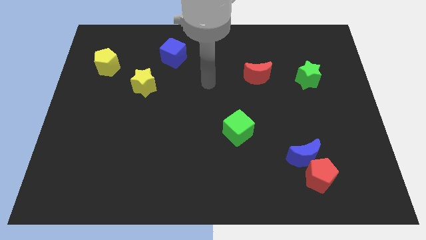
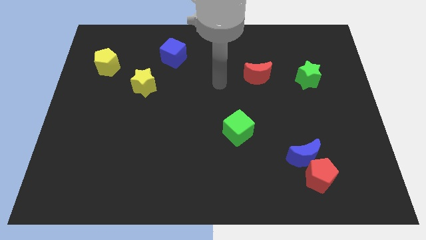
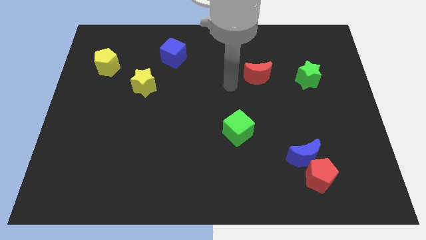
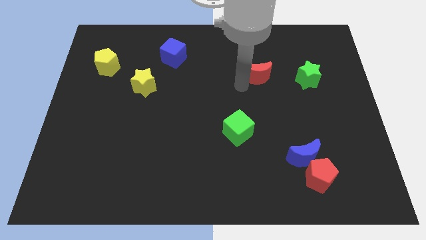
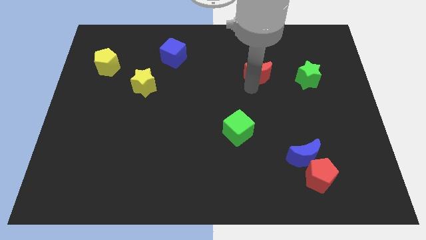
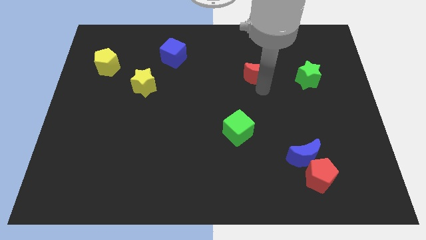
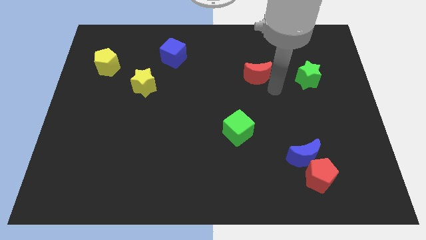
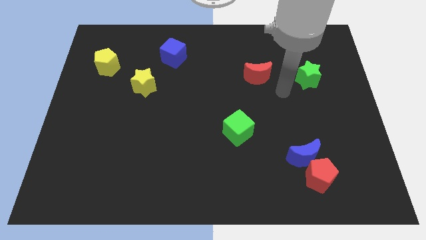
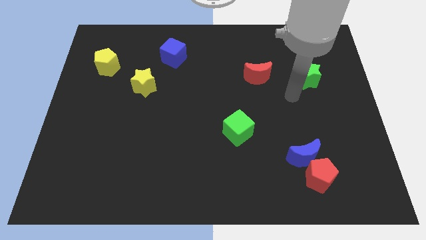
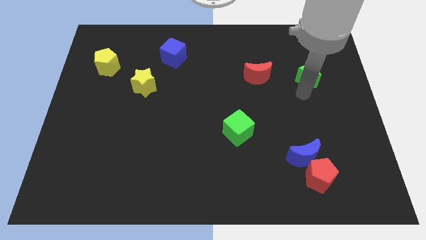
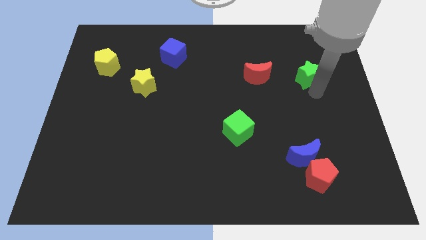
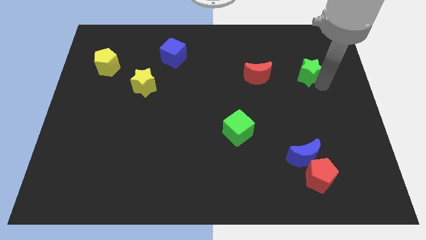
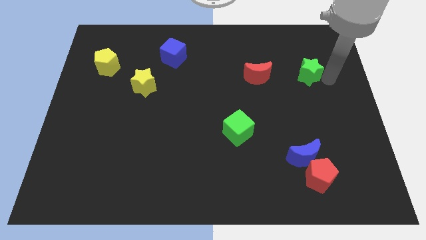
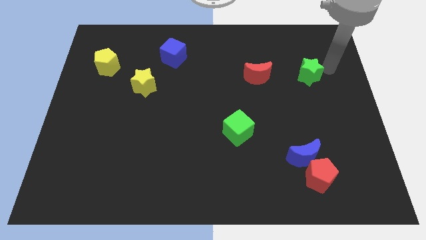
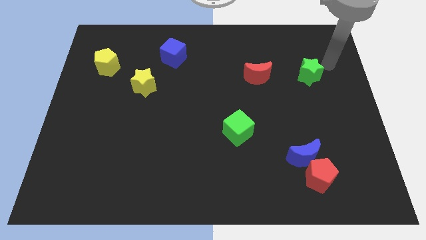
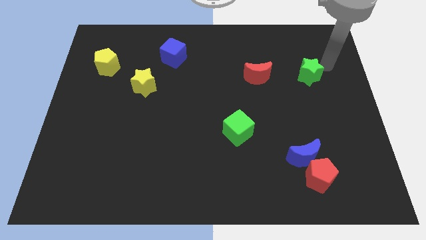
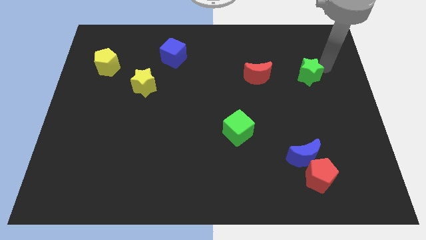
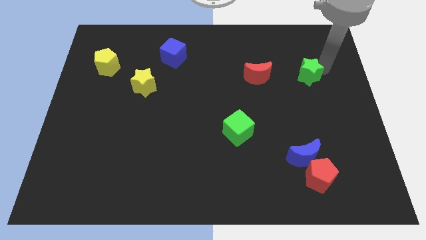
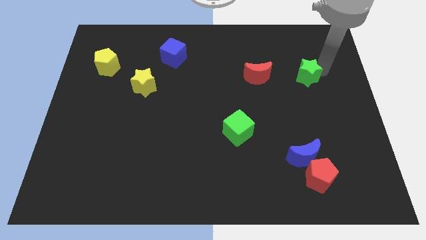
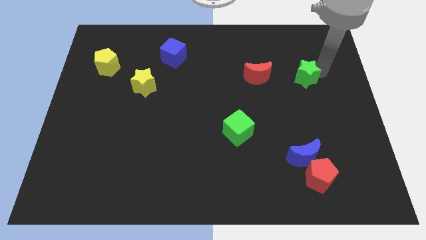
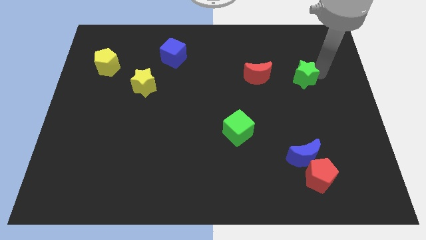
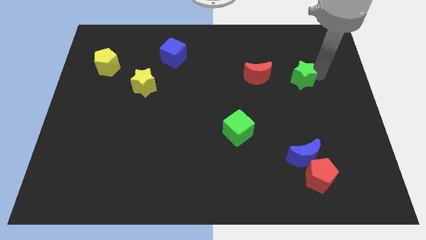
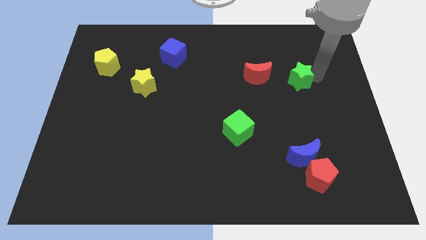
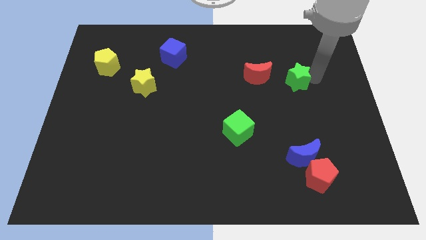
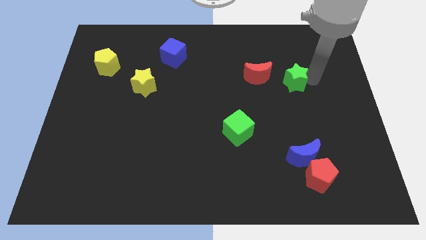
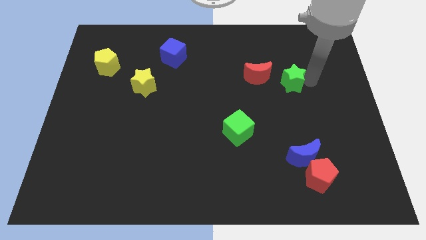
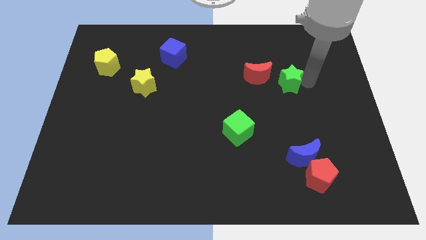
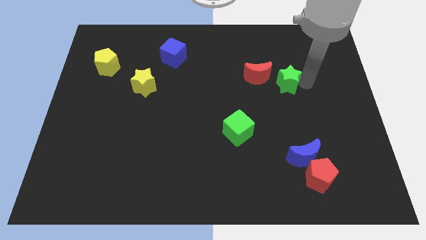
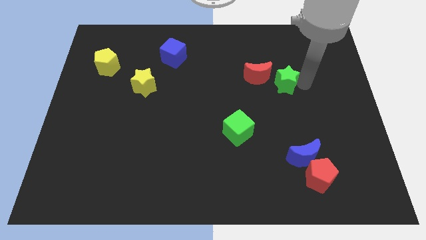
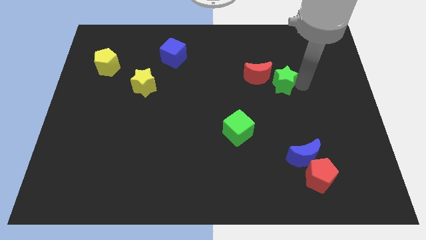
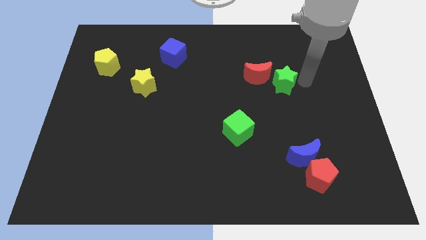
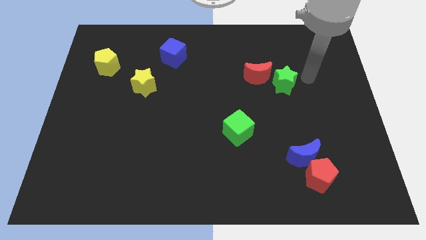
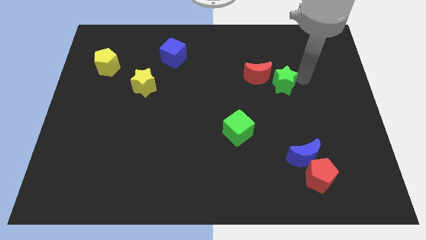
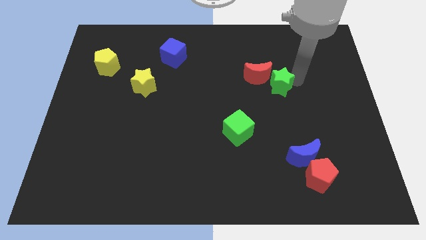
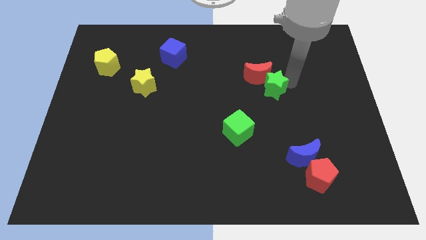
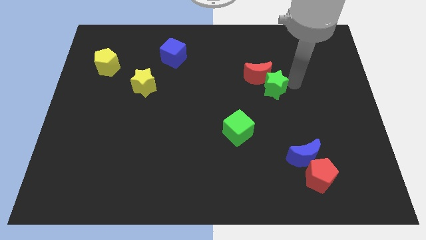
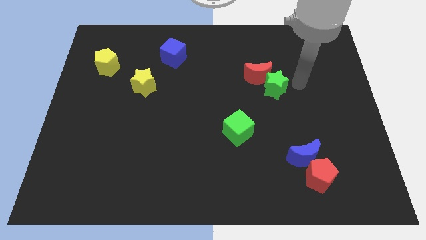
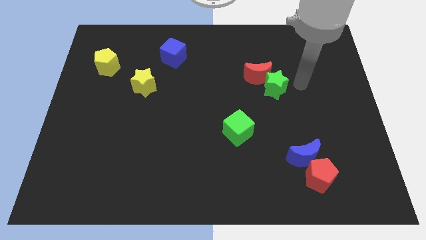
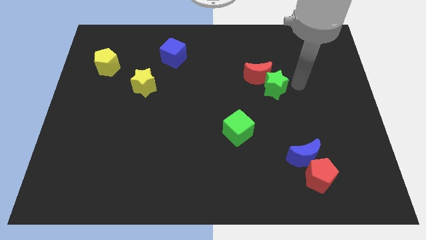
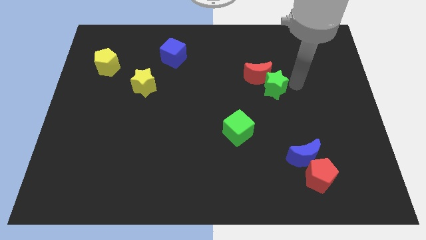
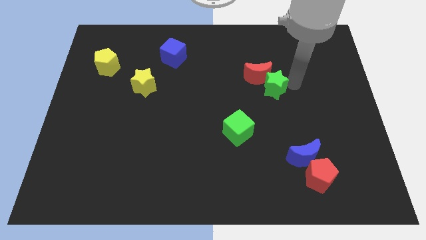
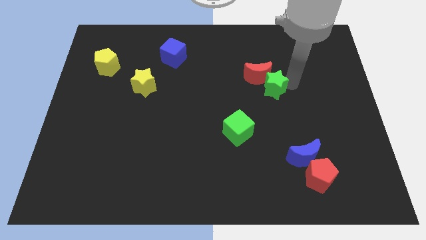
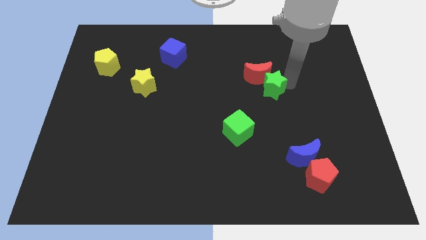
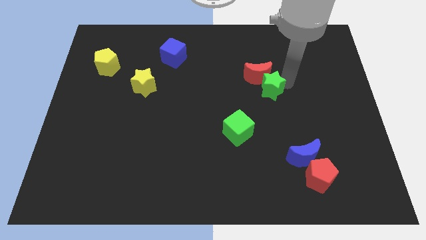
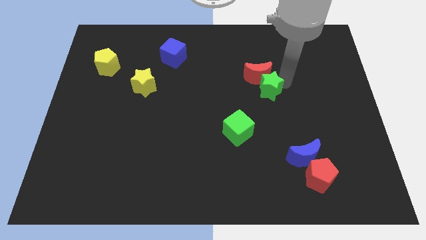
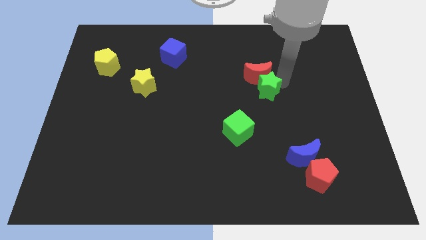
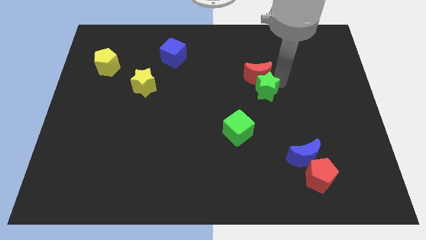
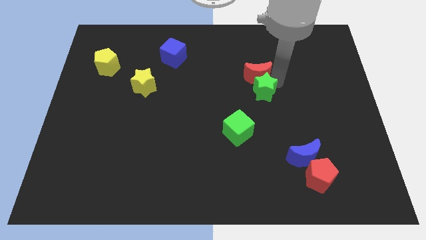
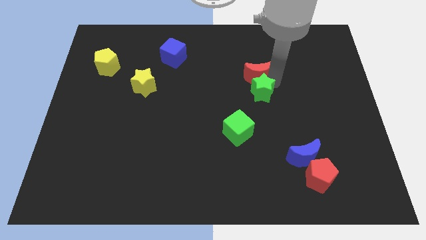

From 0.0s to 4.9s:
slide the green star to the center of the board

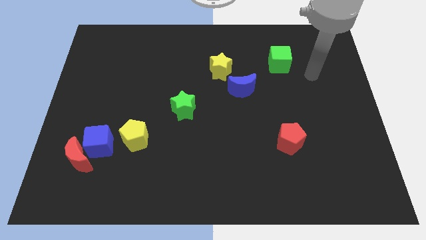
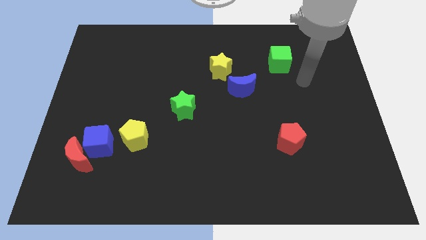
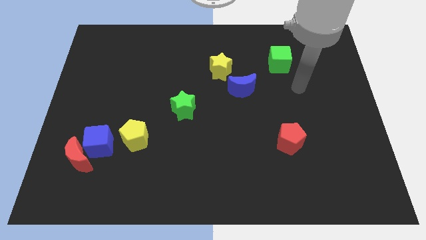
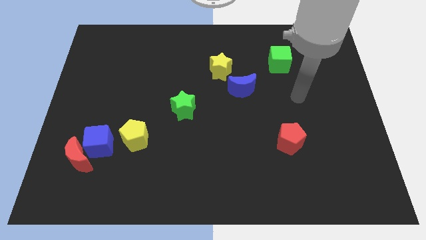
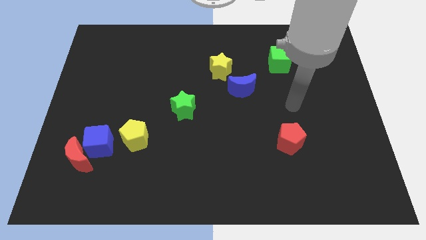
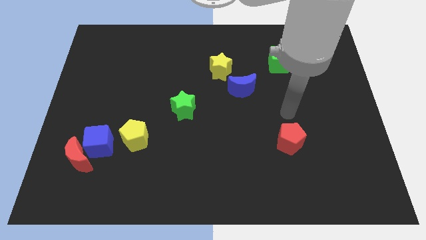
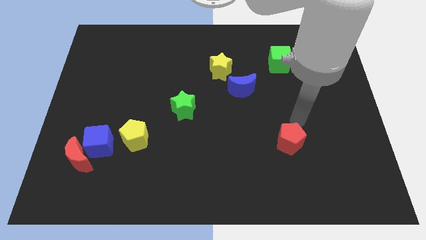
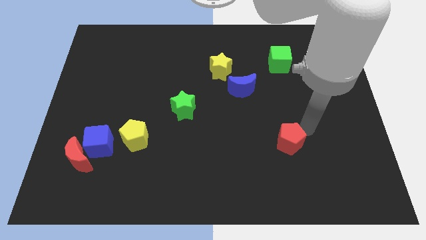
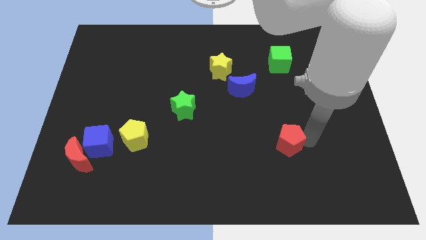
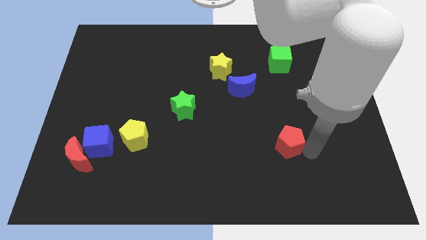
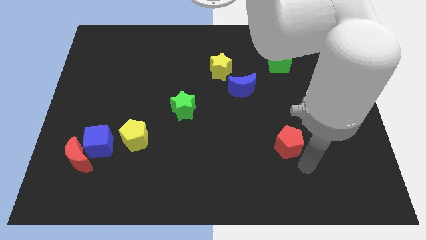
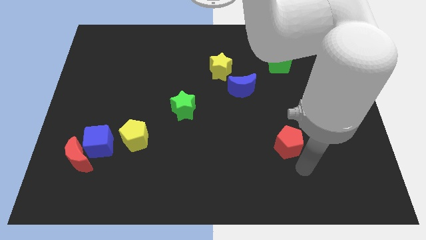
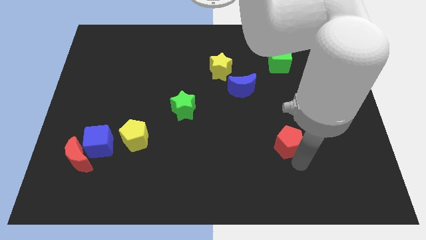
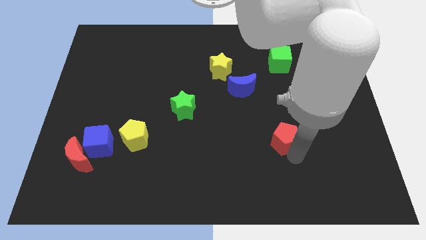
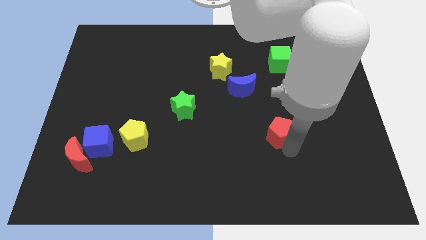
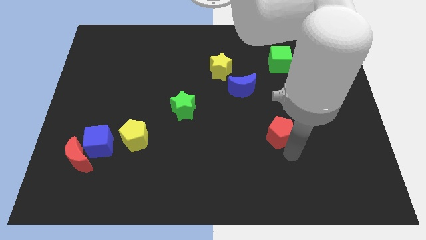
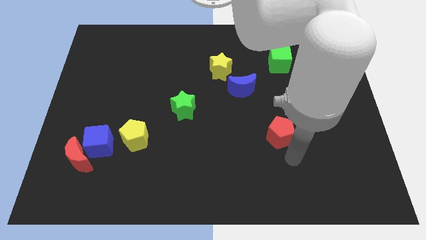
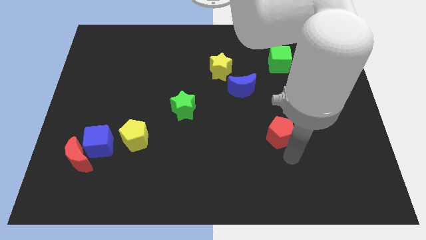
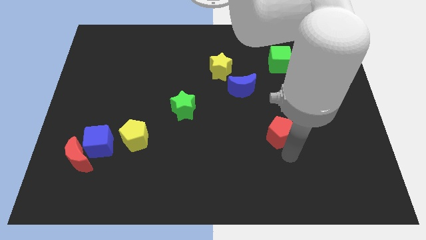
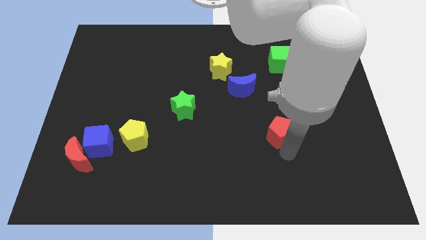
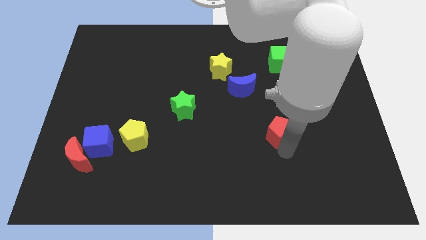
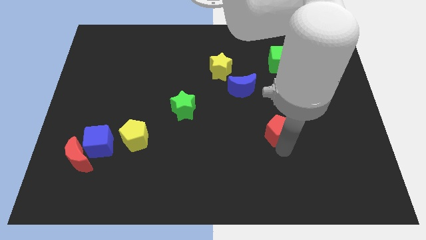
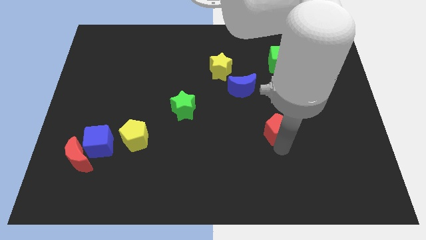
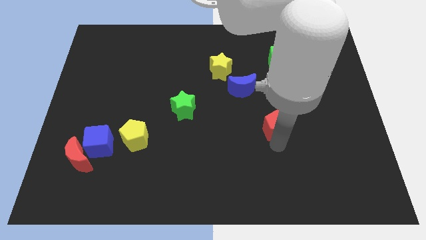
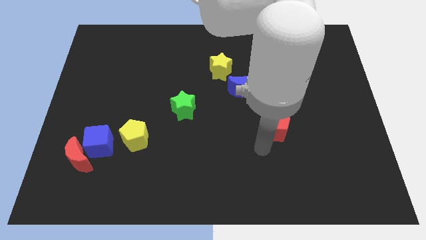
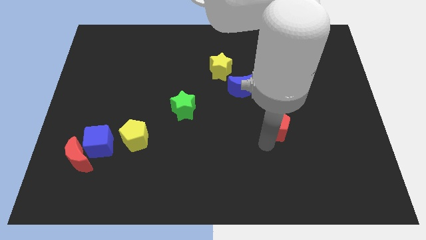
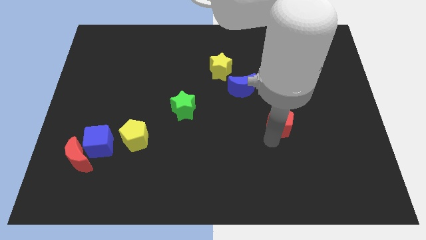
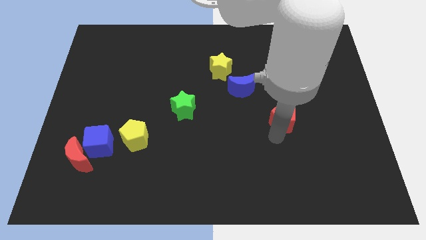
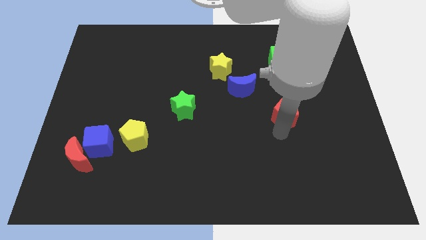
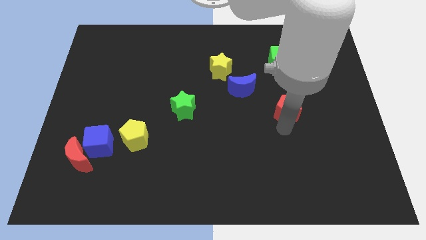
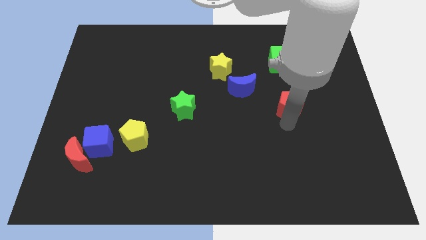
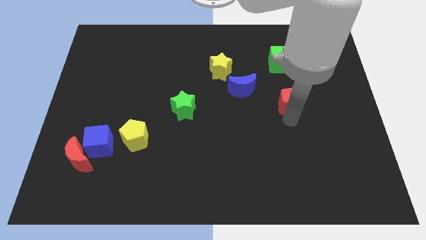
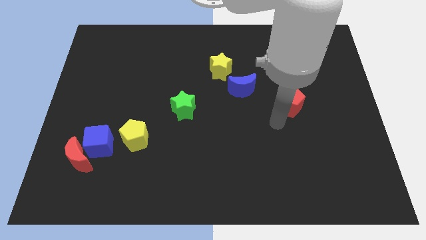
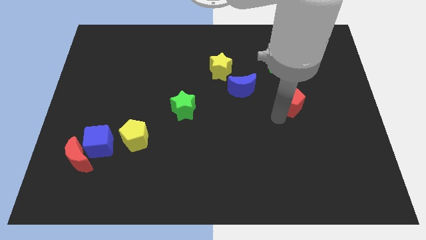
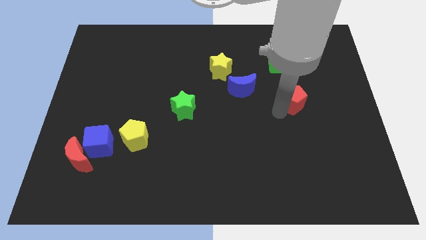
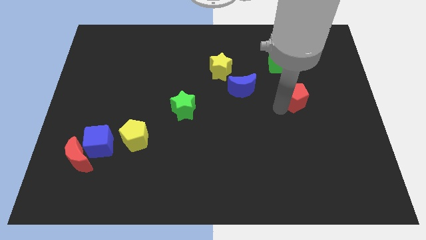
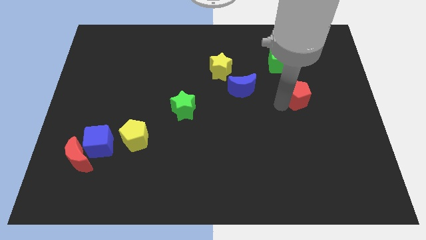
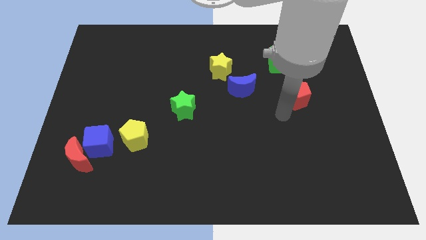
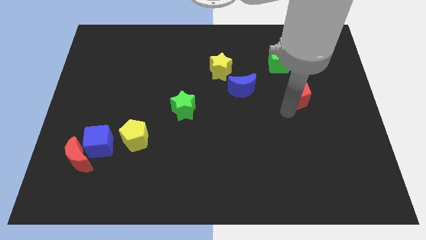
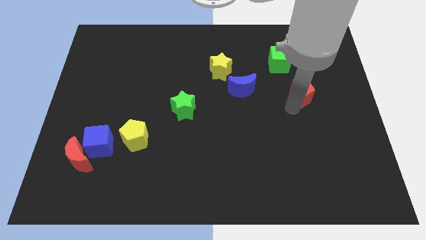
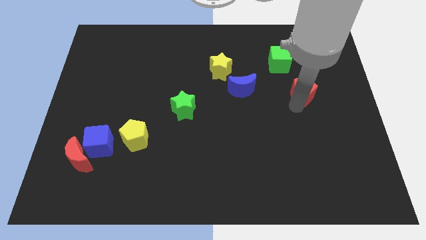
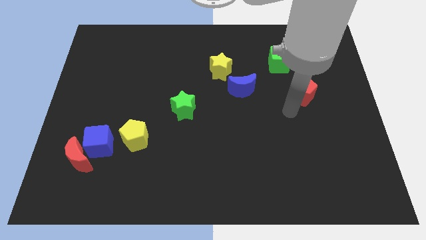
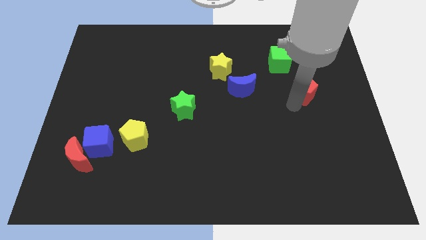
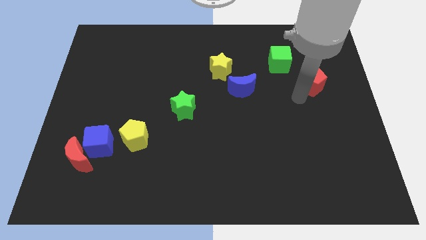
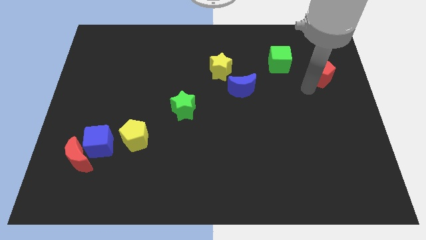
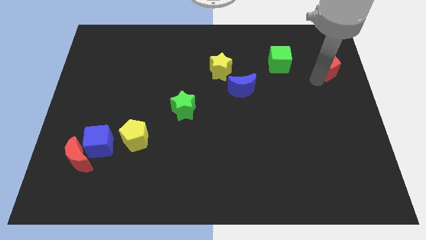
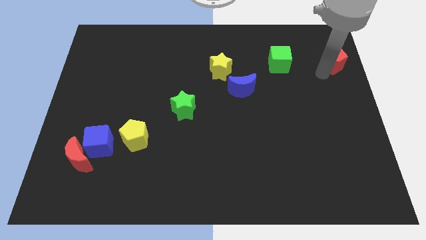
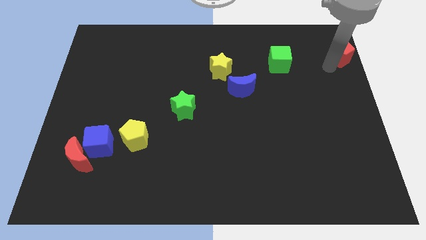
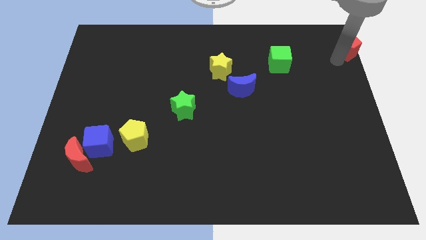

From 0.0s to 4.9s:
move the red pentagon to the top right
